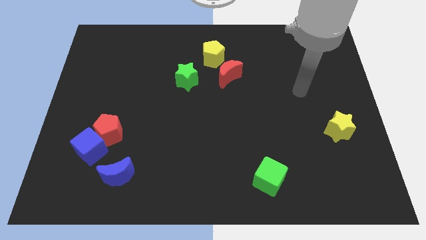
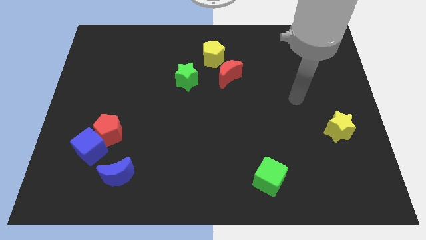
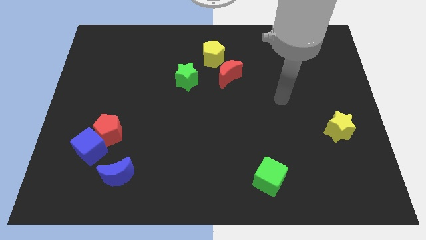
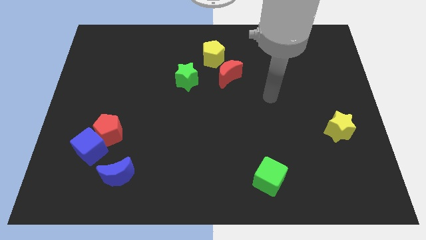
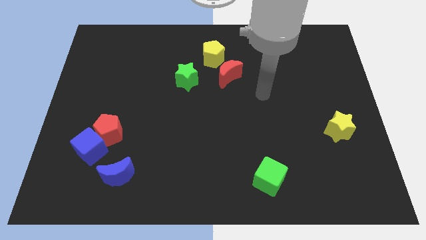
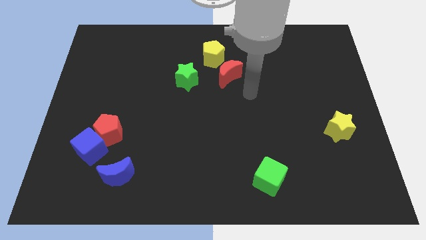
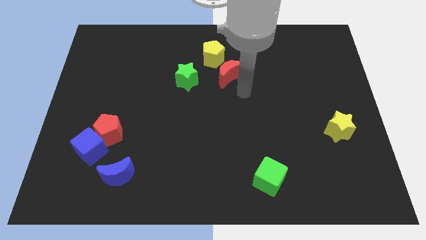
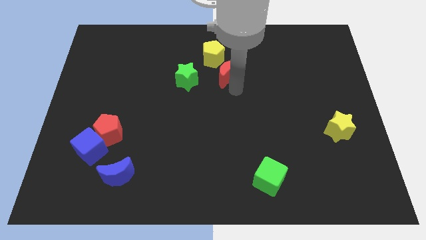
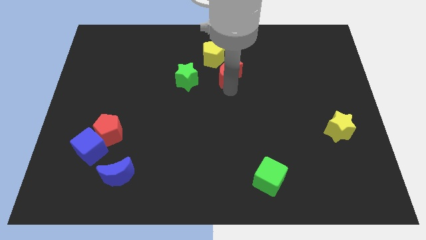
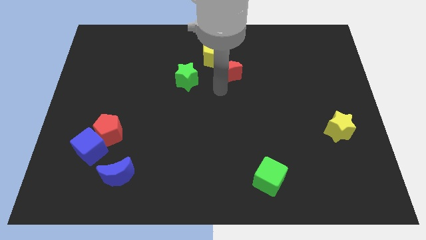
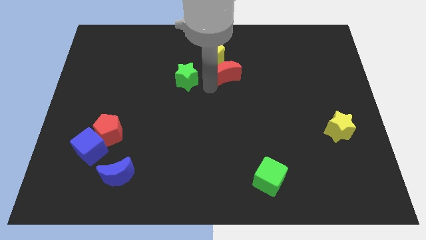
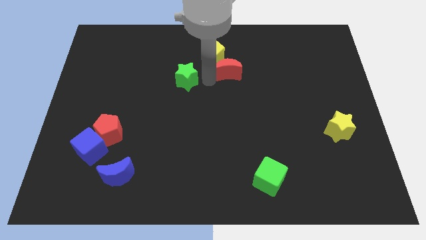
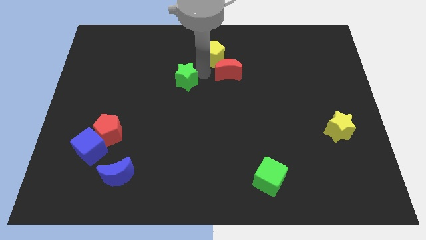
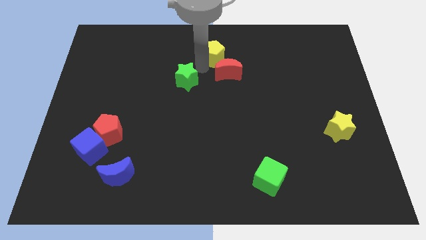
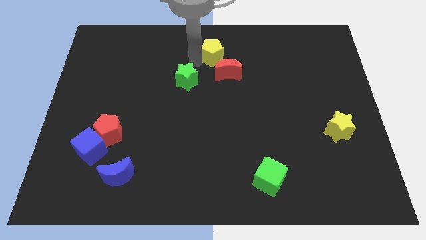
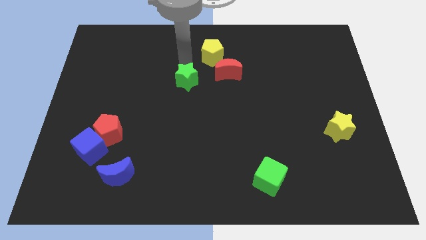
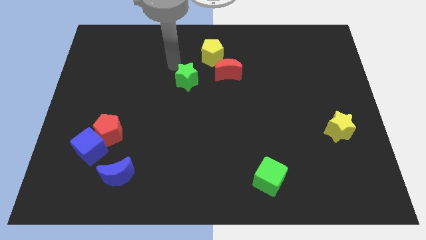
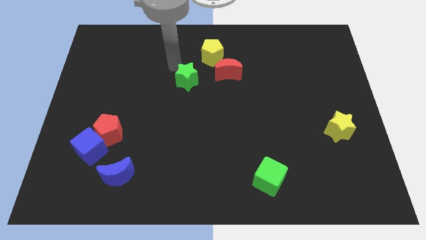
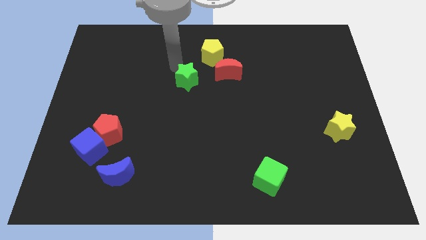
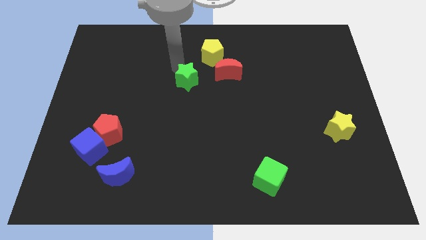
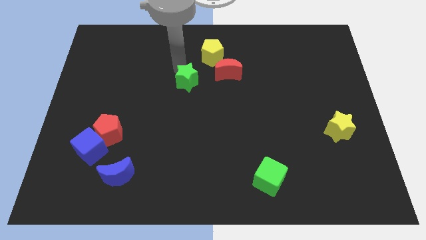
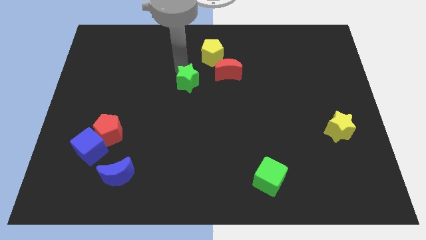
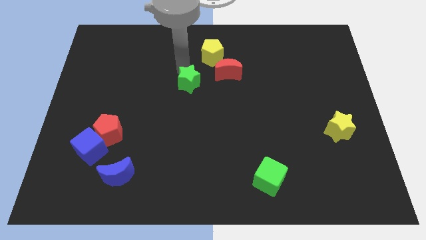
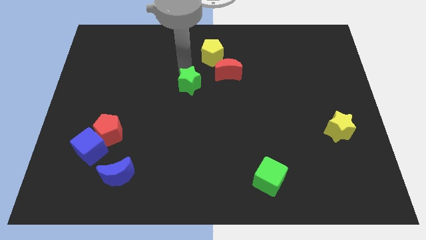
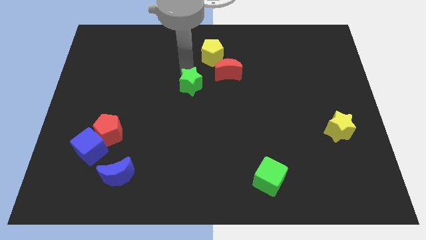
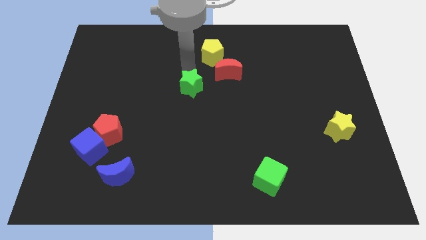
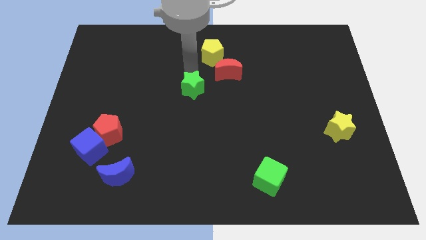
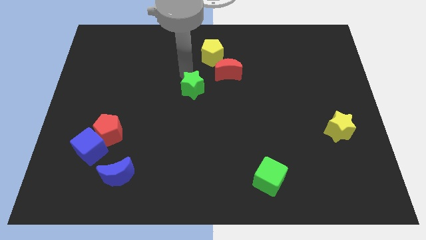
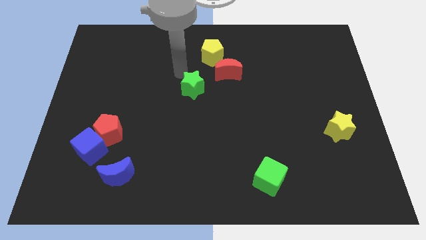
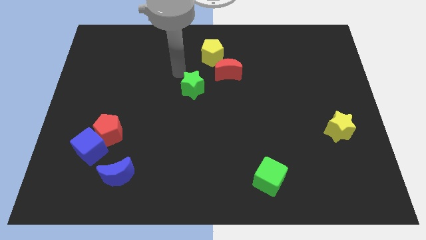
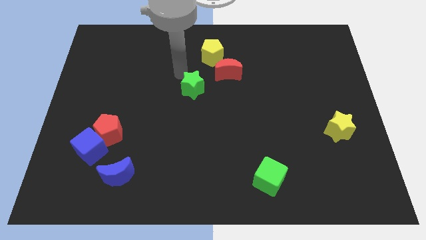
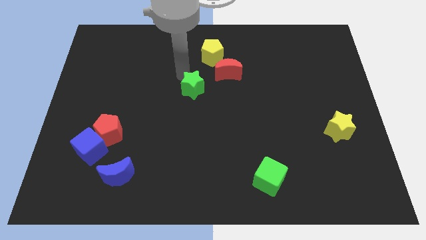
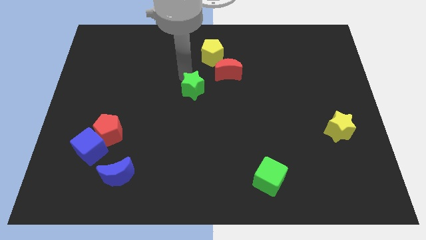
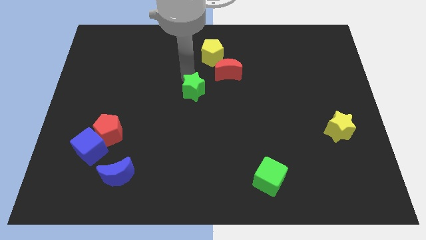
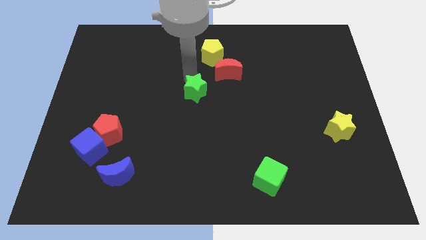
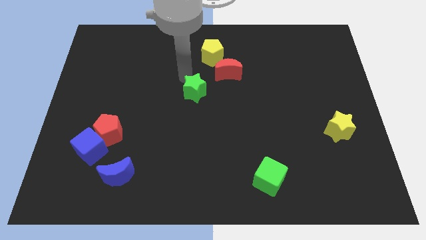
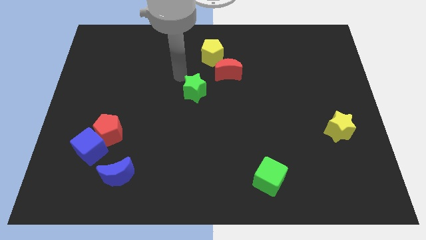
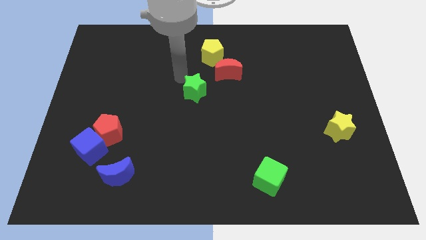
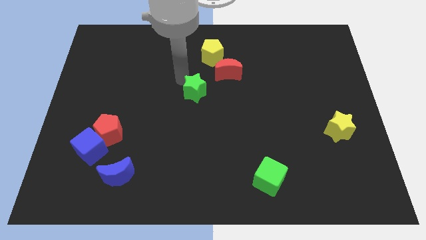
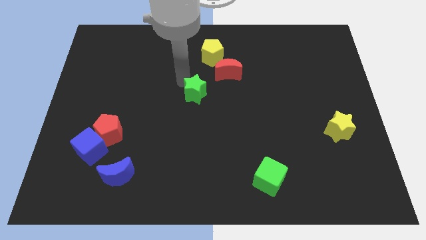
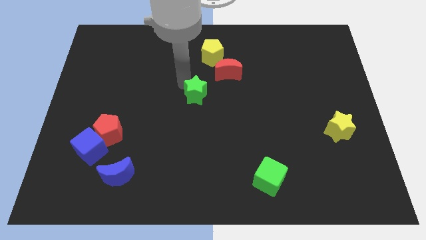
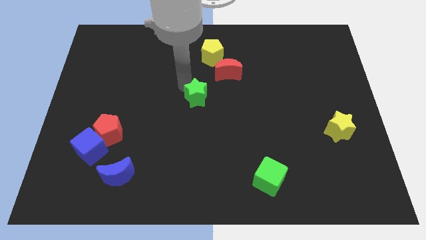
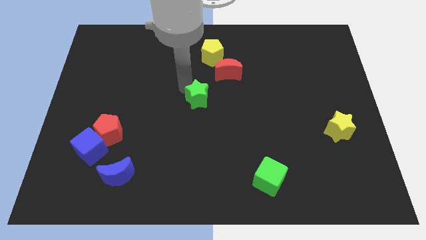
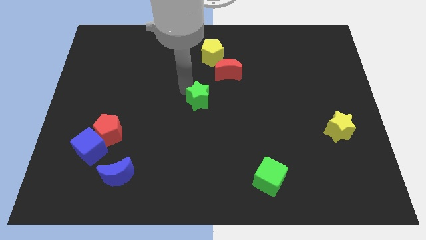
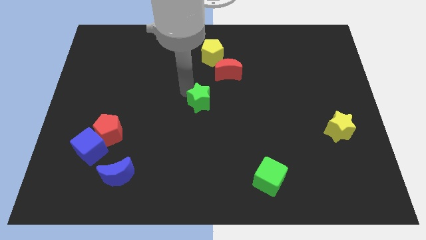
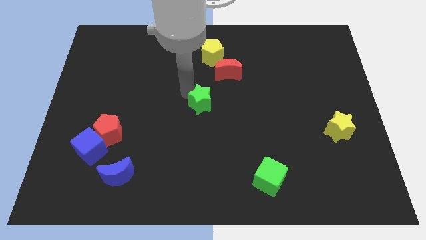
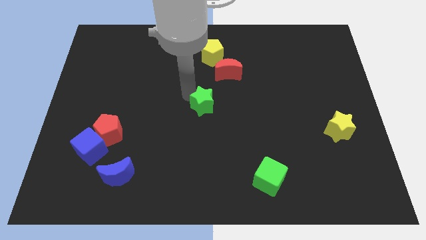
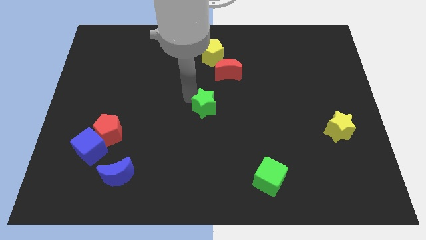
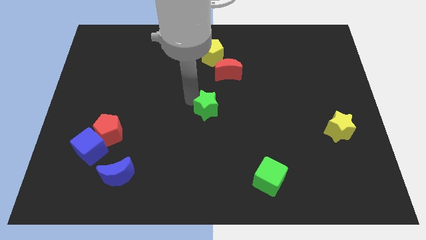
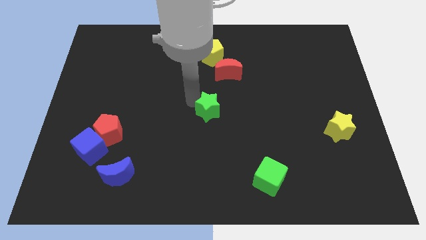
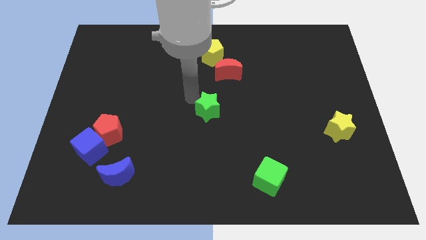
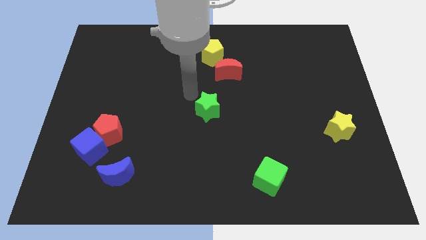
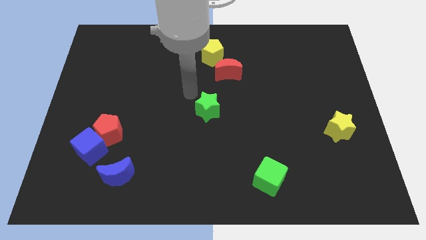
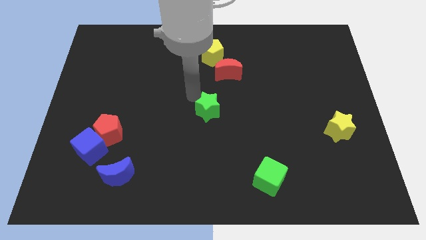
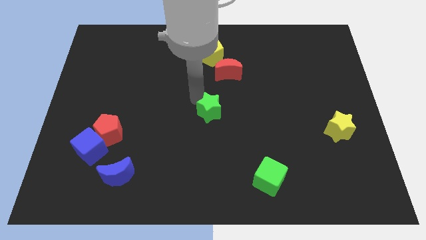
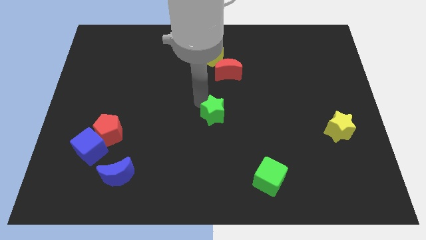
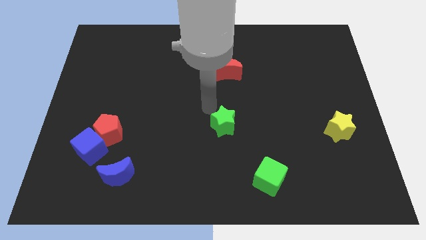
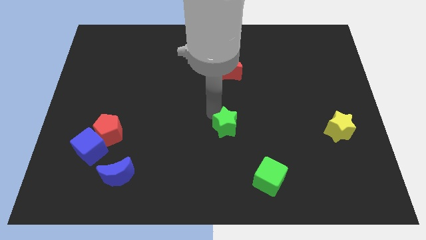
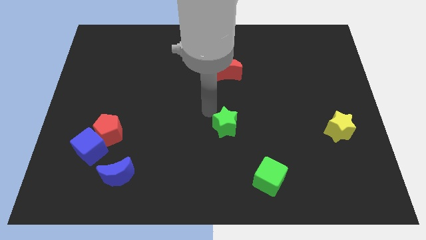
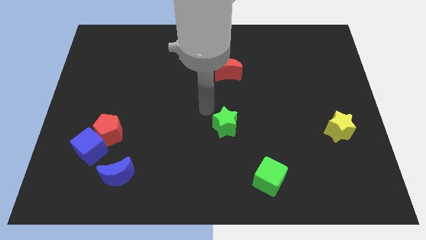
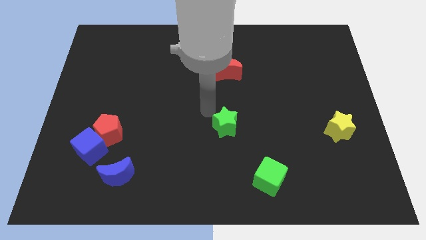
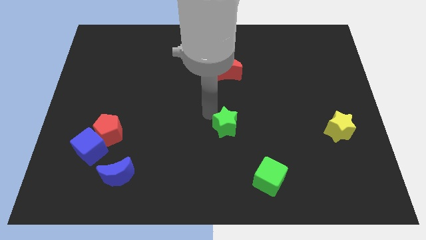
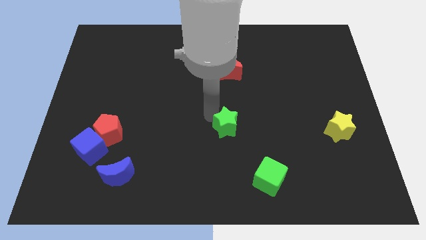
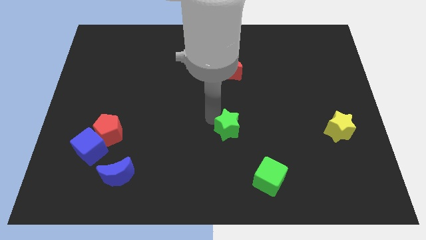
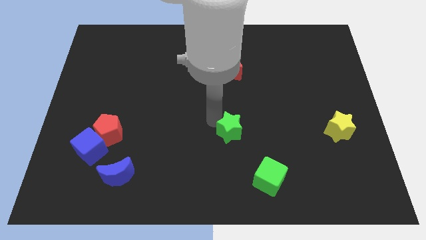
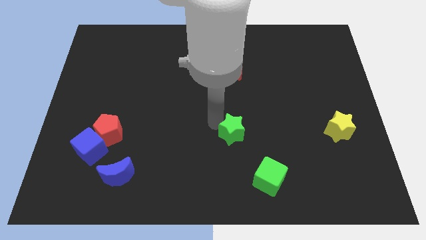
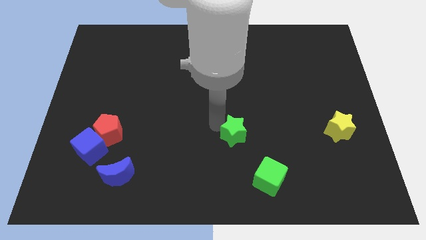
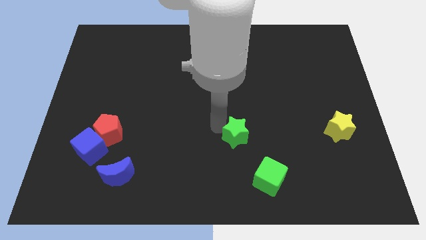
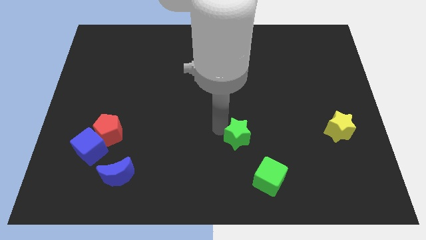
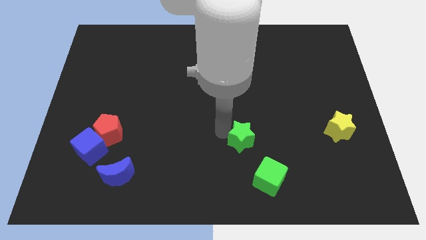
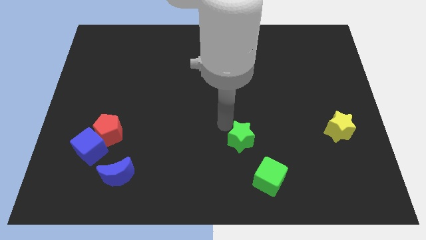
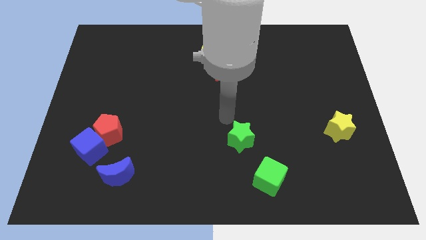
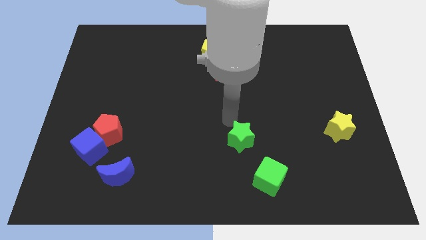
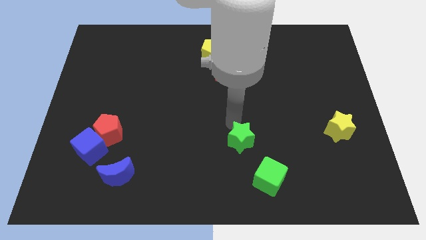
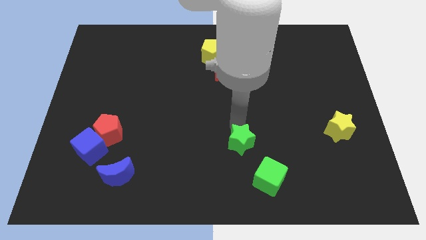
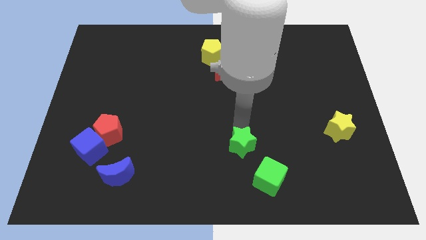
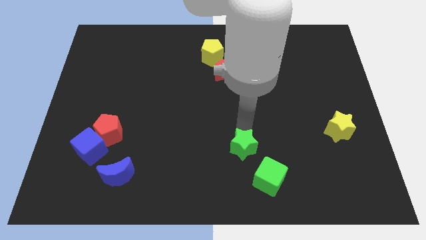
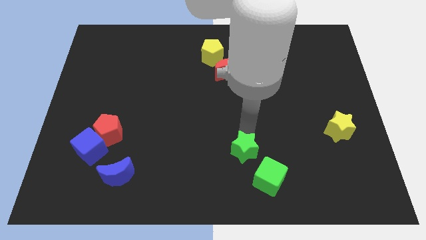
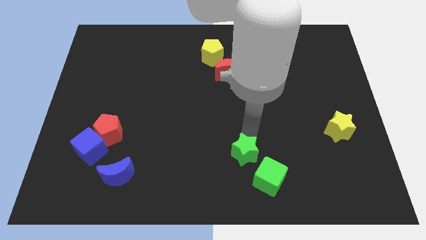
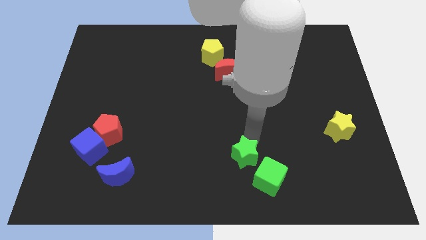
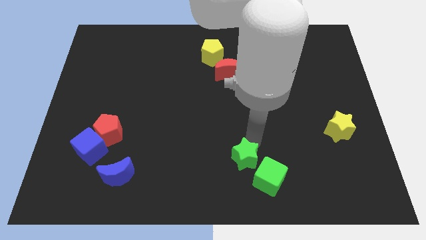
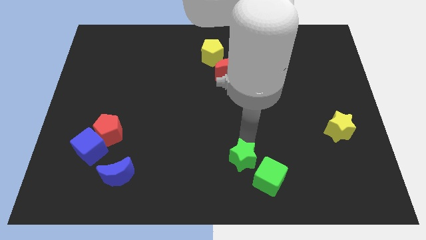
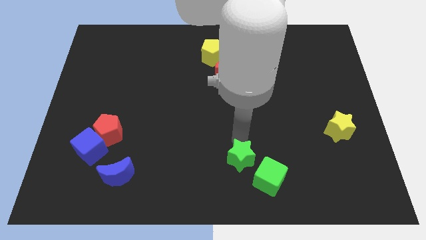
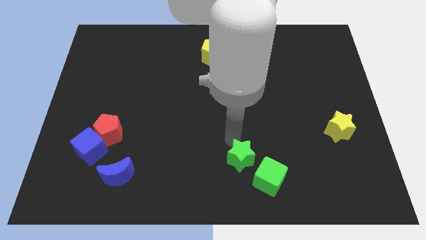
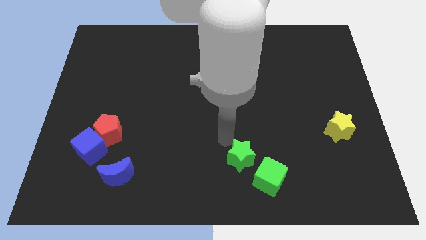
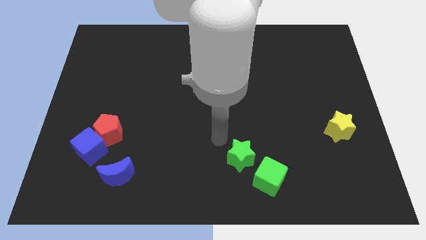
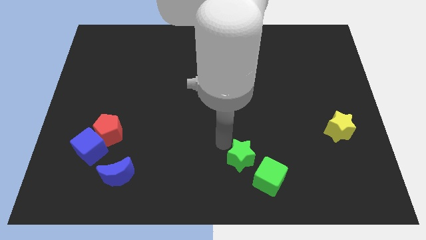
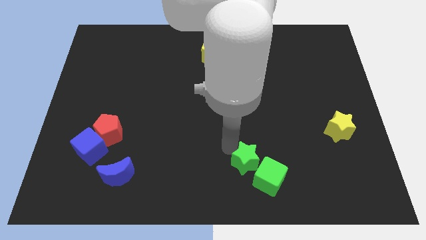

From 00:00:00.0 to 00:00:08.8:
put the green star towards the green cube
